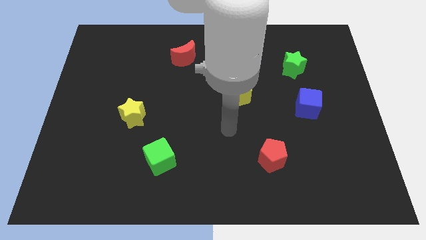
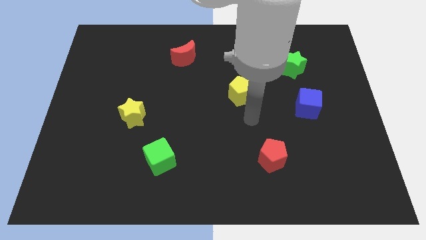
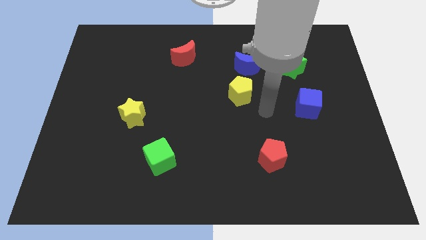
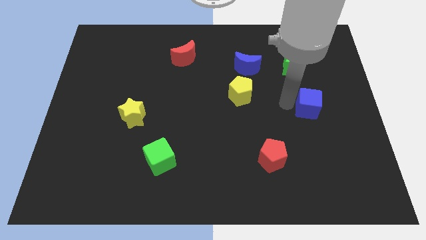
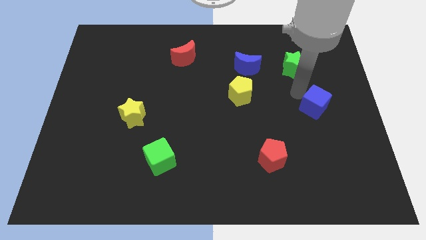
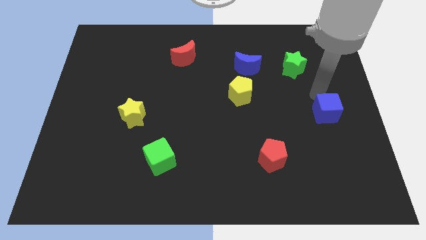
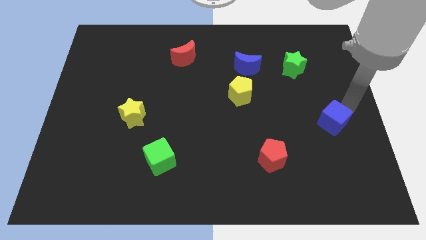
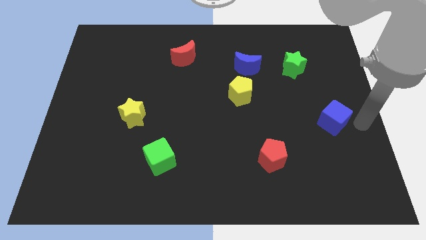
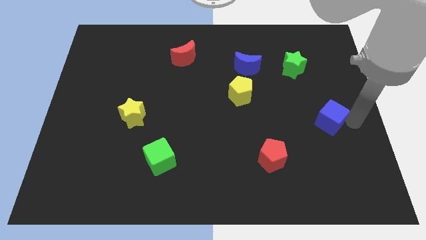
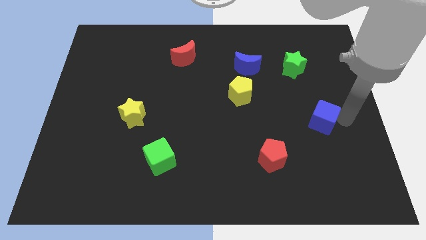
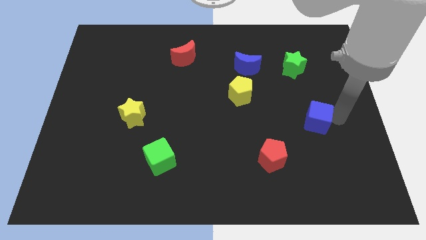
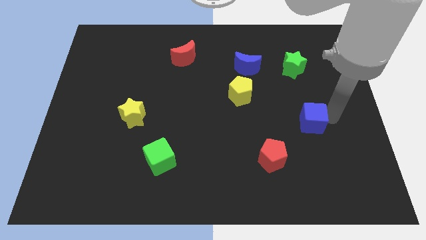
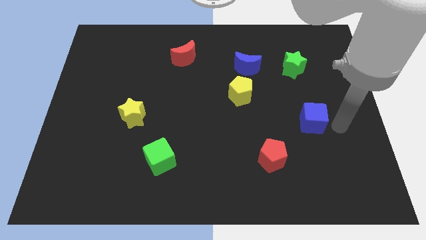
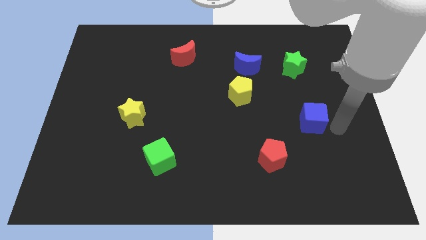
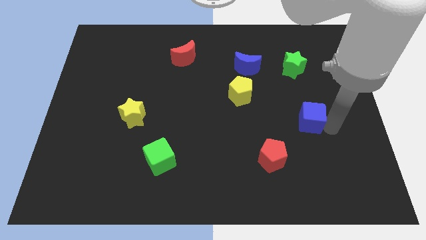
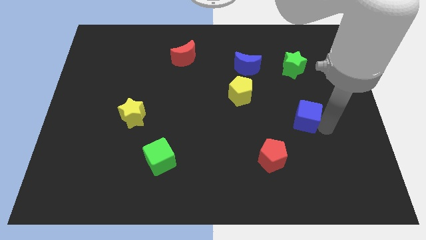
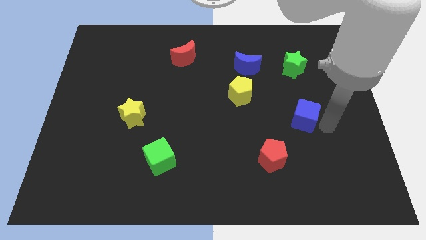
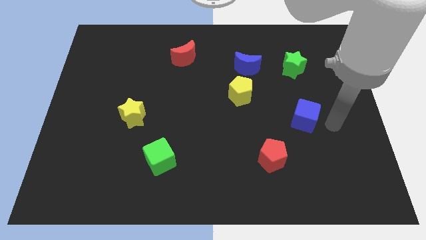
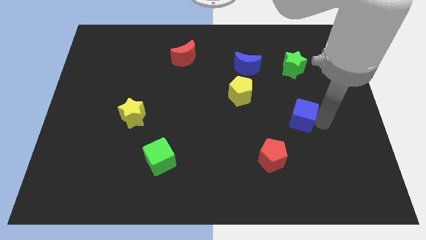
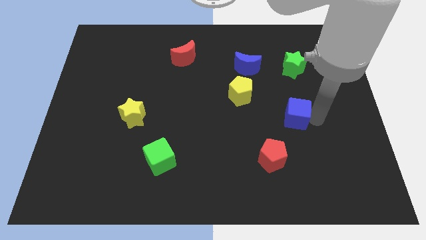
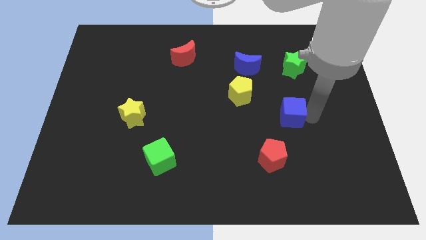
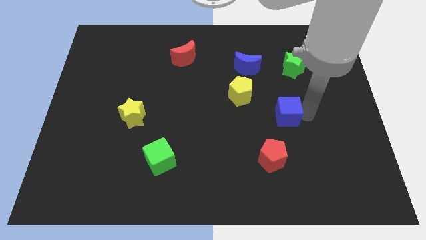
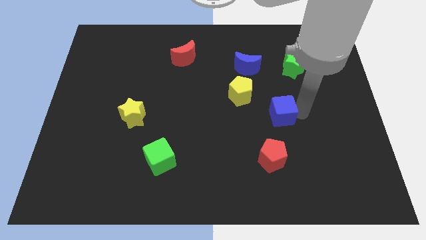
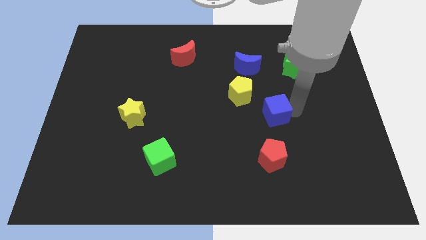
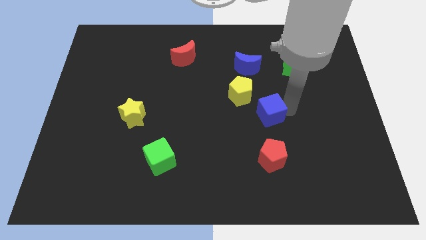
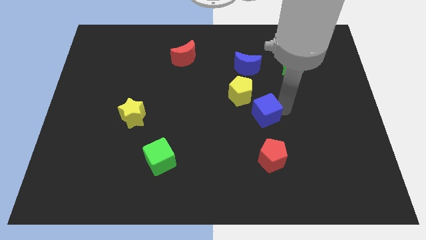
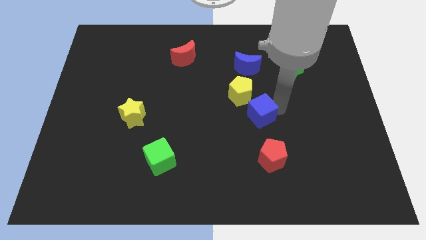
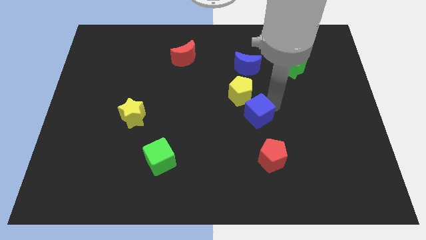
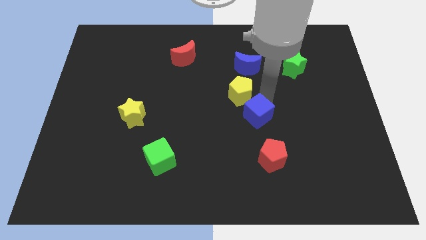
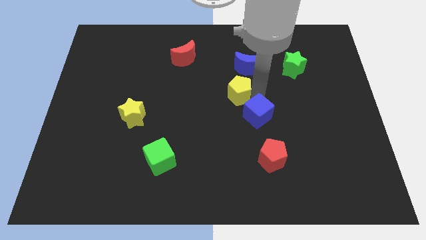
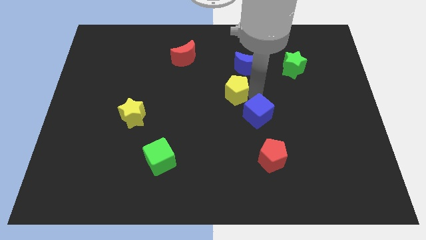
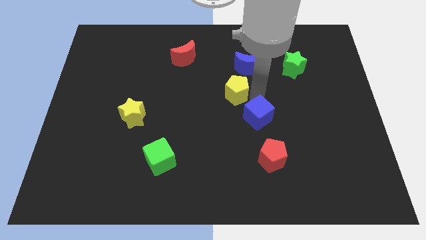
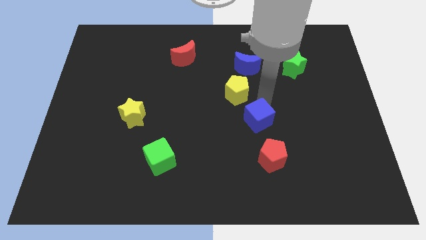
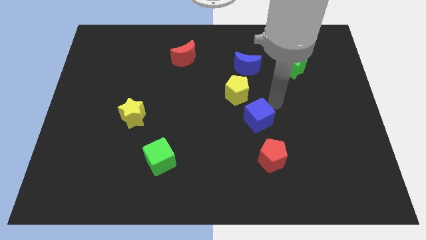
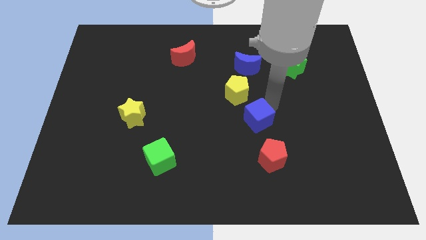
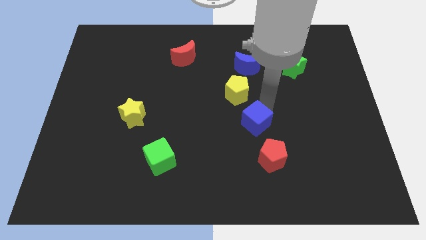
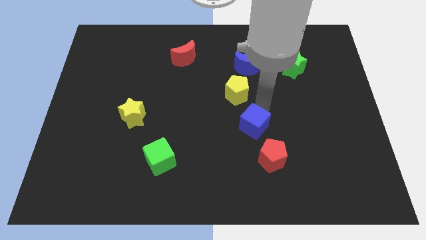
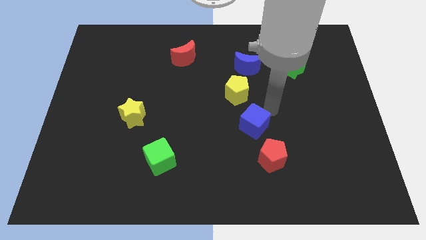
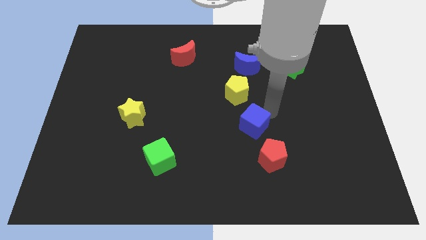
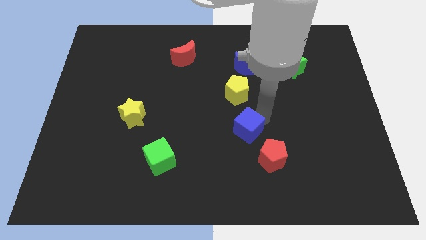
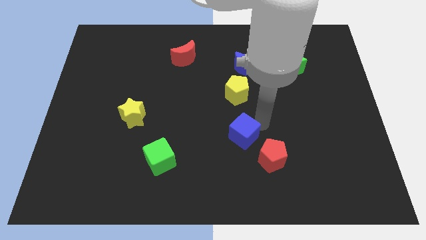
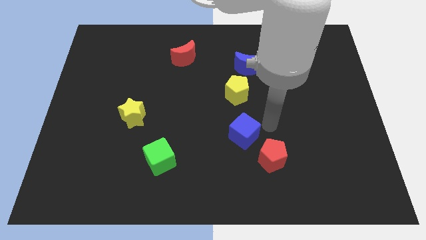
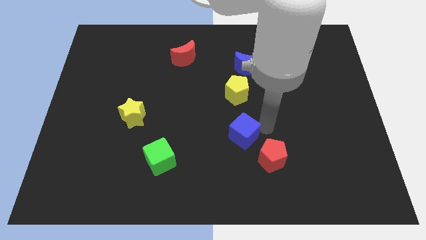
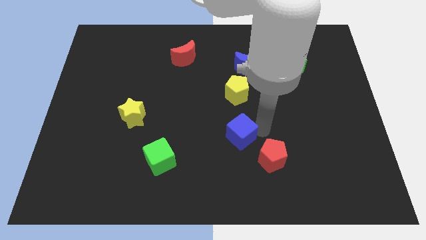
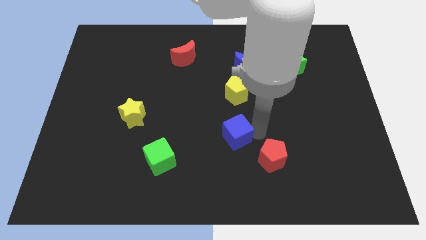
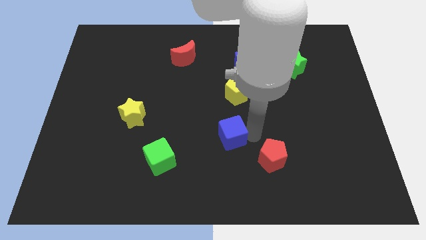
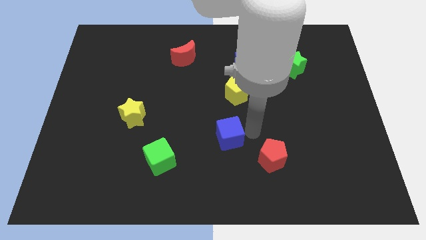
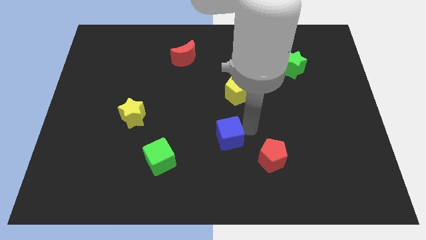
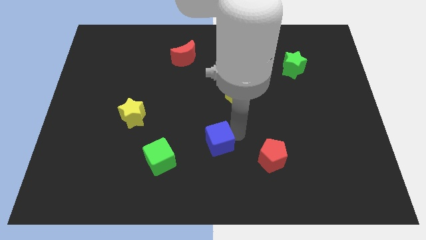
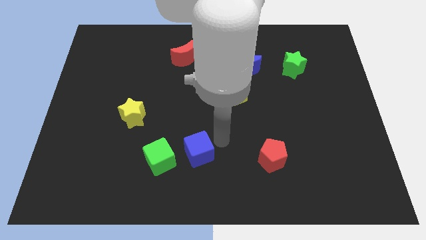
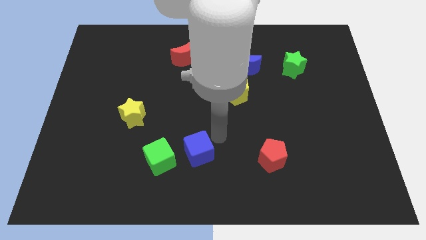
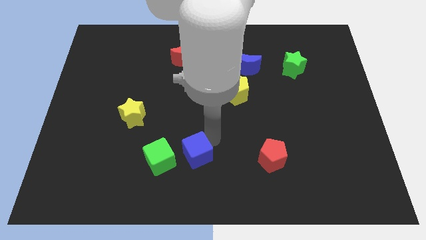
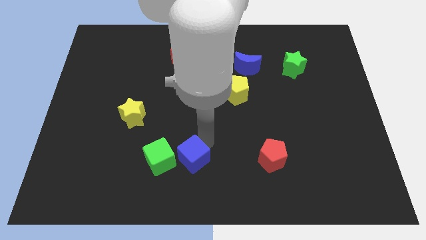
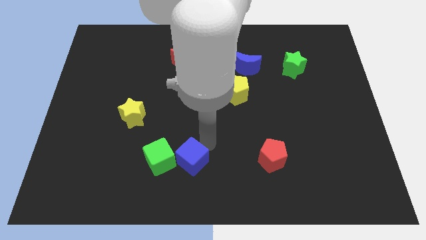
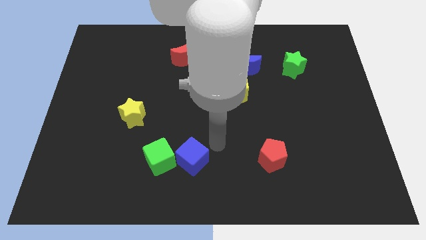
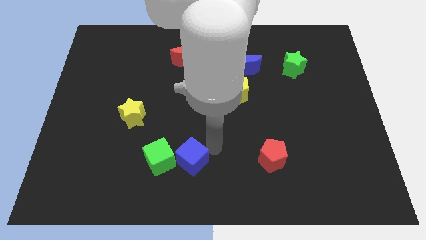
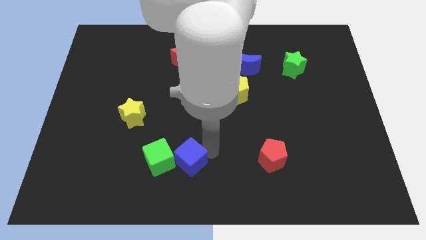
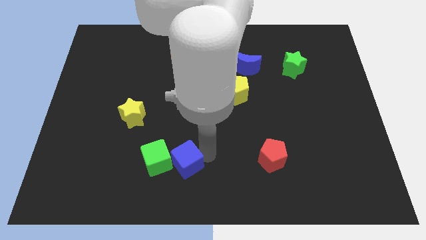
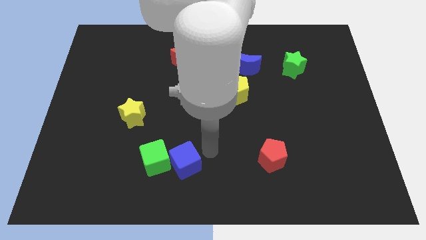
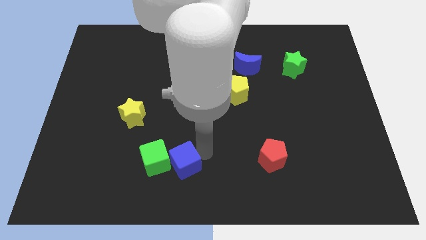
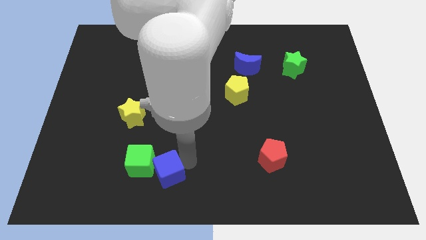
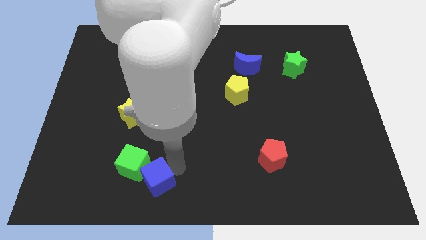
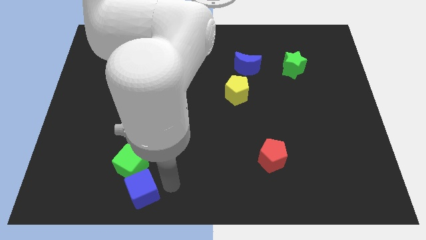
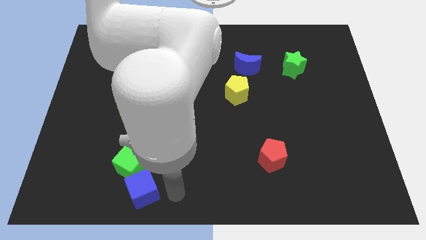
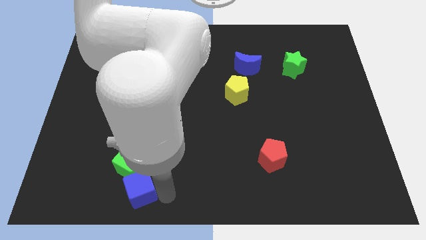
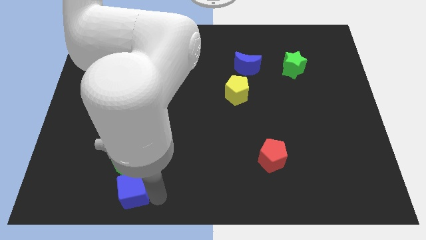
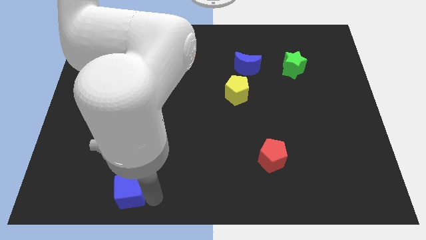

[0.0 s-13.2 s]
move the blue cube to the bottom left of the green cube
